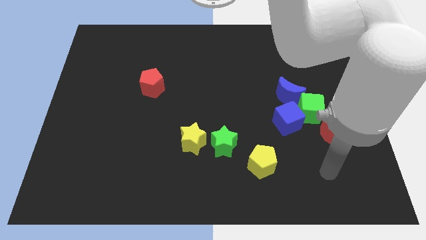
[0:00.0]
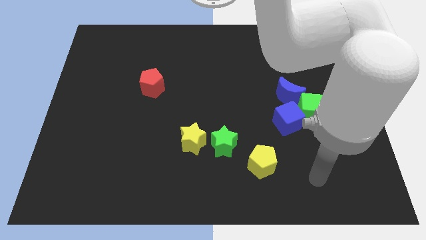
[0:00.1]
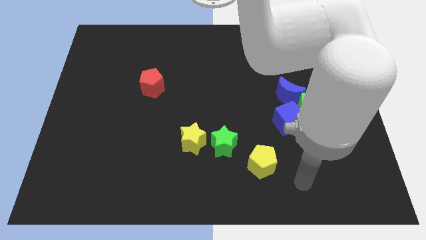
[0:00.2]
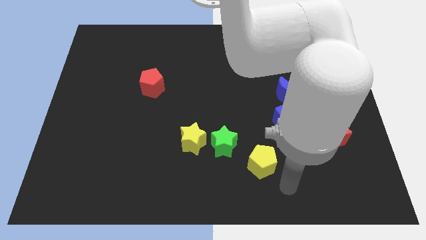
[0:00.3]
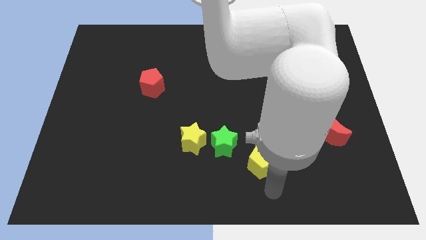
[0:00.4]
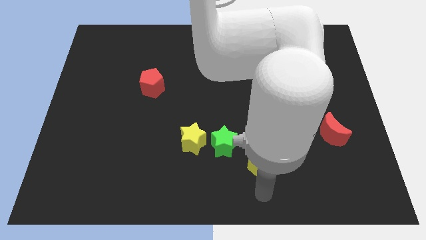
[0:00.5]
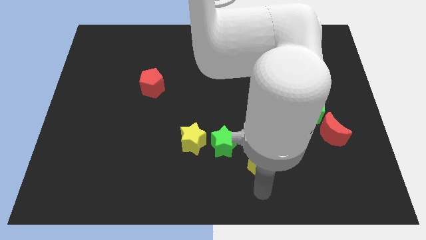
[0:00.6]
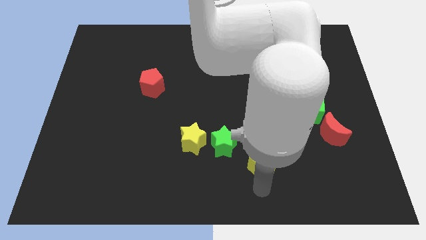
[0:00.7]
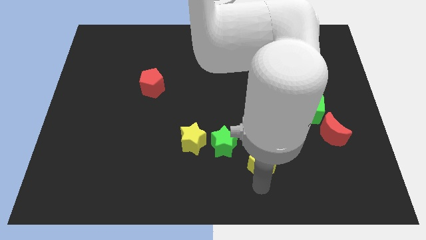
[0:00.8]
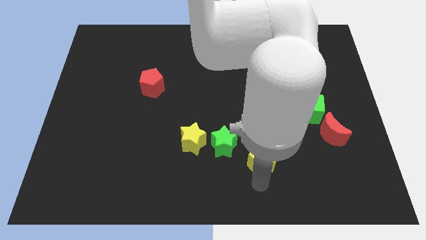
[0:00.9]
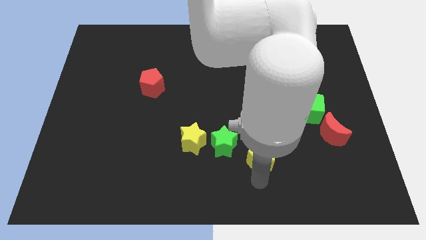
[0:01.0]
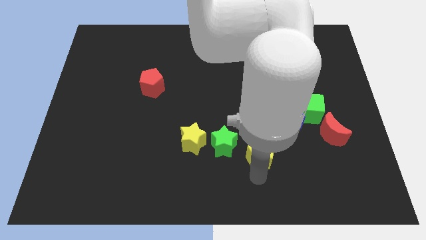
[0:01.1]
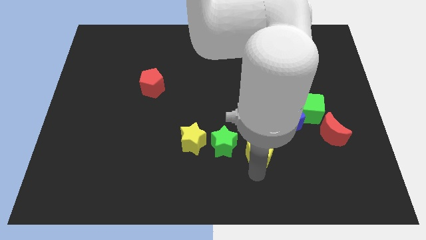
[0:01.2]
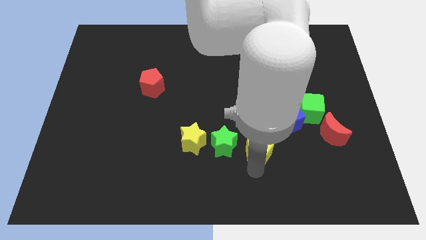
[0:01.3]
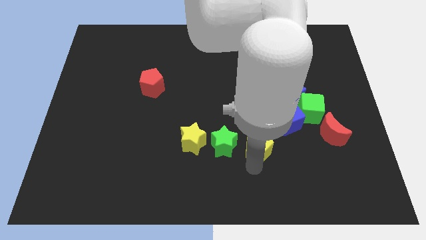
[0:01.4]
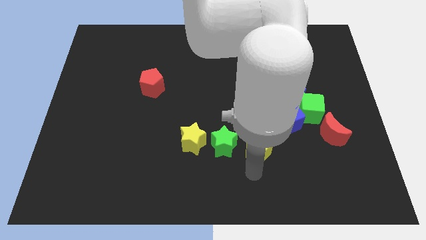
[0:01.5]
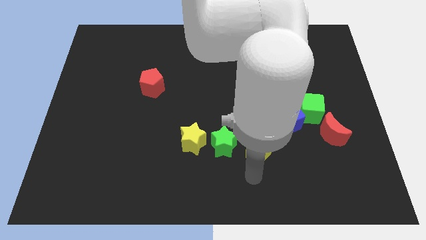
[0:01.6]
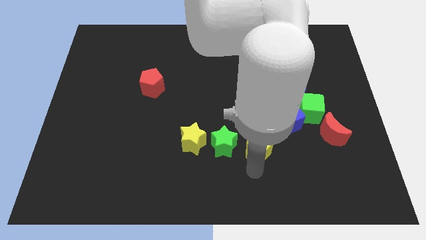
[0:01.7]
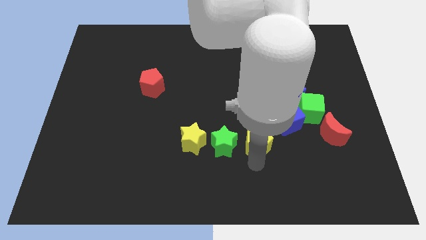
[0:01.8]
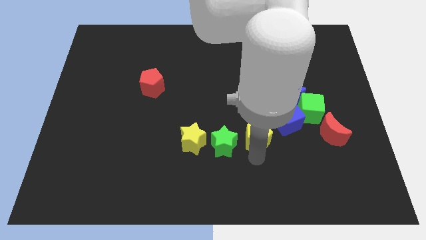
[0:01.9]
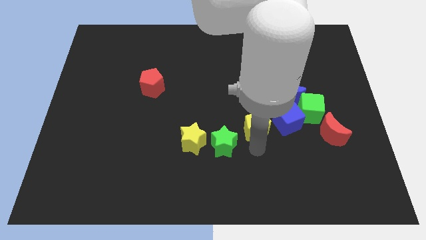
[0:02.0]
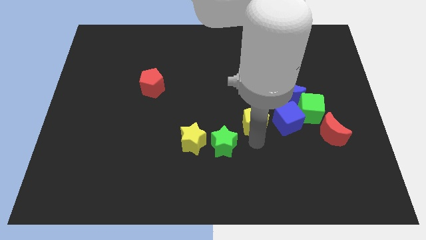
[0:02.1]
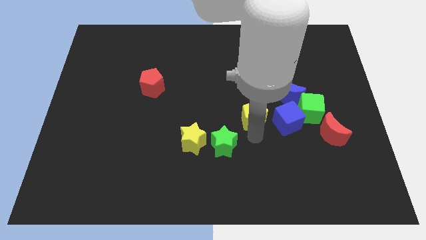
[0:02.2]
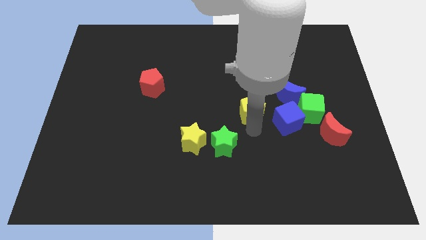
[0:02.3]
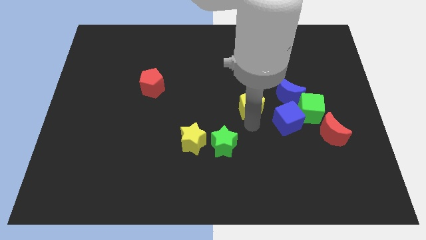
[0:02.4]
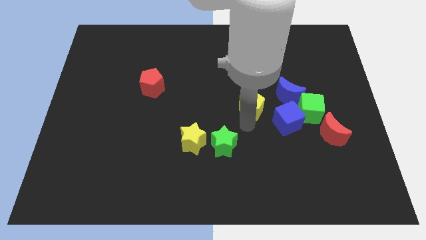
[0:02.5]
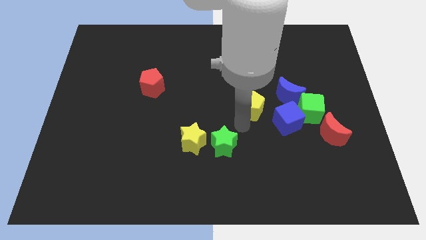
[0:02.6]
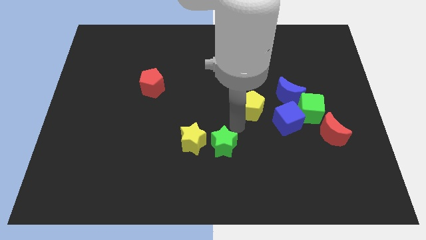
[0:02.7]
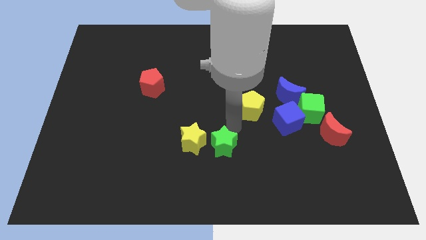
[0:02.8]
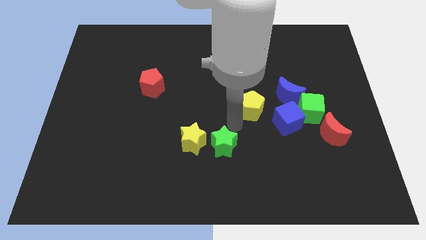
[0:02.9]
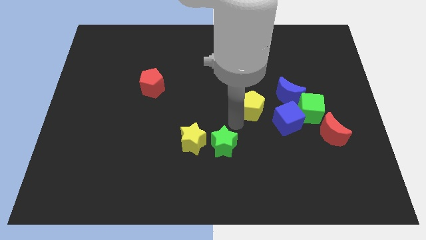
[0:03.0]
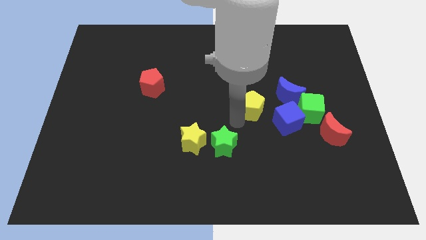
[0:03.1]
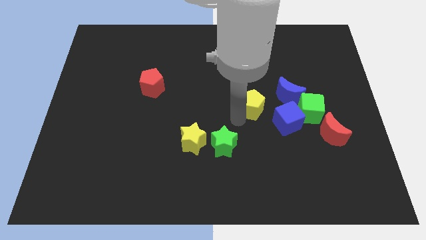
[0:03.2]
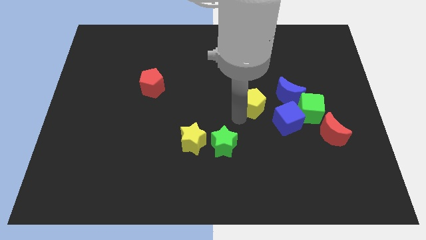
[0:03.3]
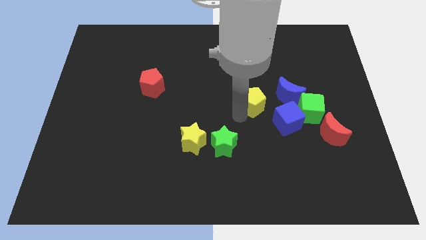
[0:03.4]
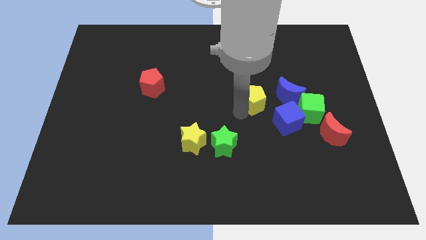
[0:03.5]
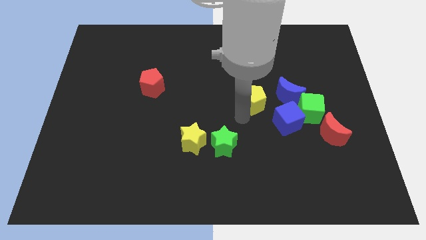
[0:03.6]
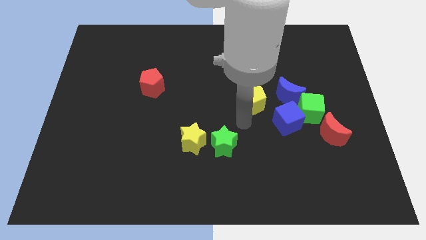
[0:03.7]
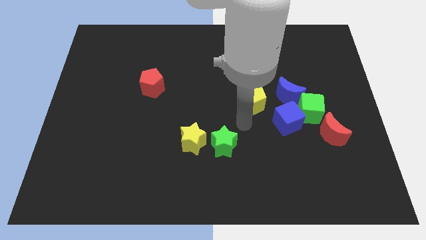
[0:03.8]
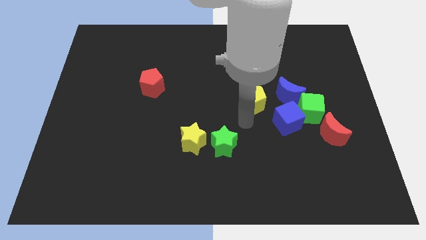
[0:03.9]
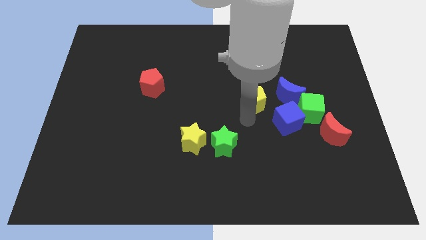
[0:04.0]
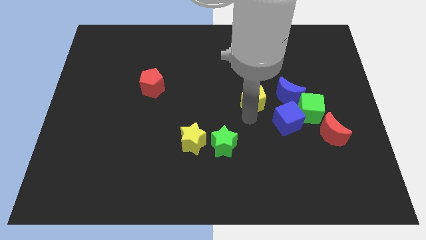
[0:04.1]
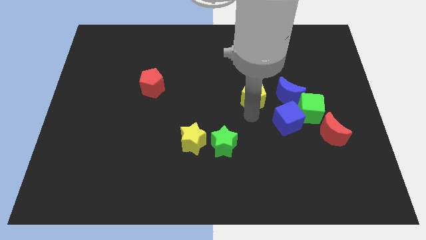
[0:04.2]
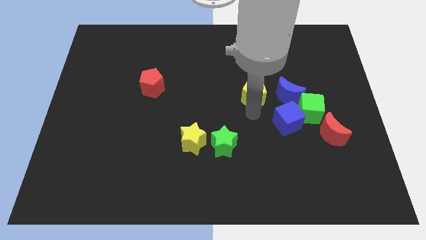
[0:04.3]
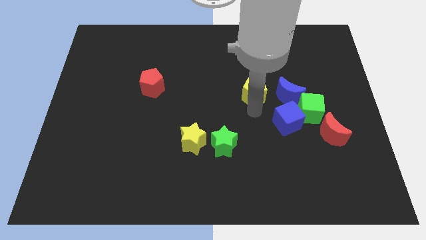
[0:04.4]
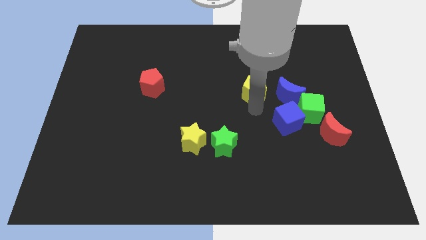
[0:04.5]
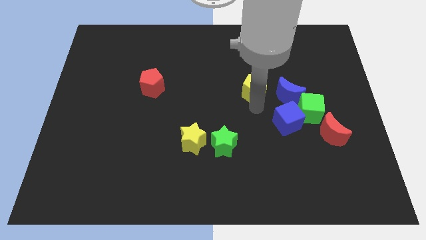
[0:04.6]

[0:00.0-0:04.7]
move the yellow pentagon up

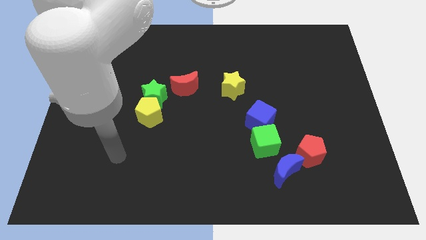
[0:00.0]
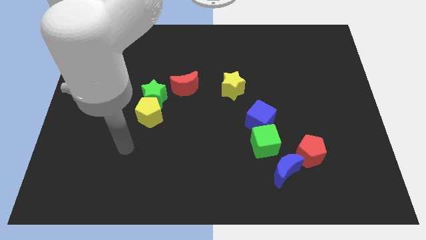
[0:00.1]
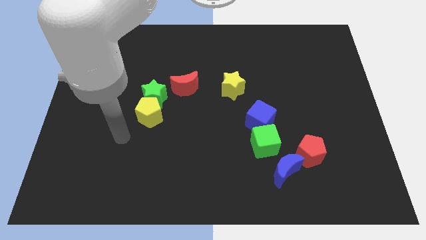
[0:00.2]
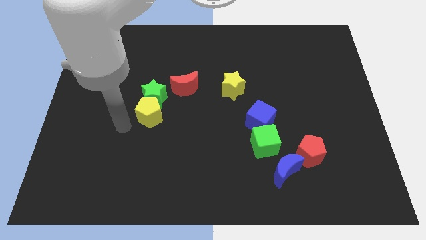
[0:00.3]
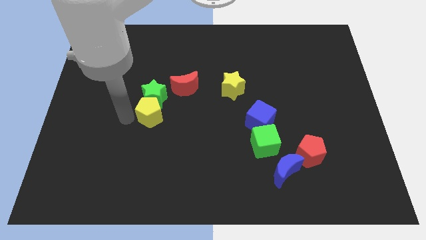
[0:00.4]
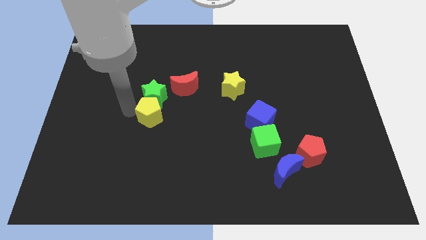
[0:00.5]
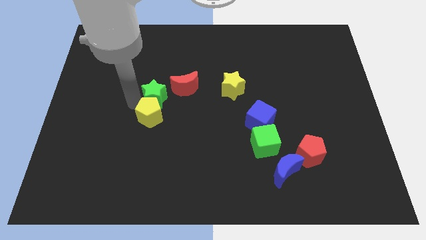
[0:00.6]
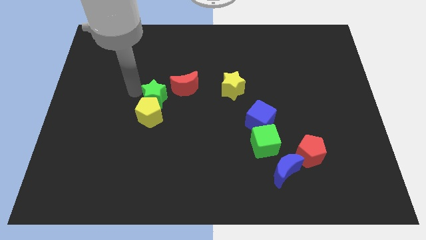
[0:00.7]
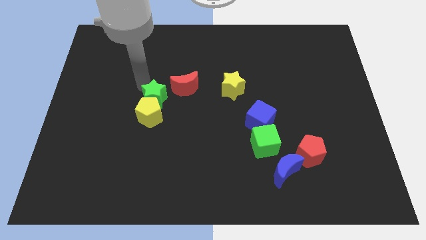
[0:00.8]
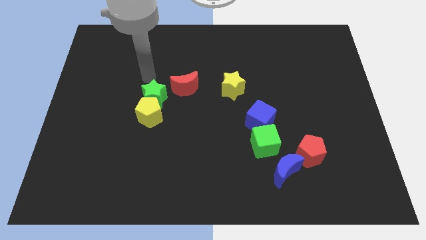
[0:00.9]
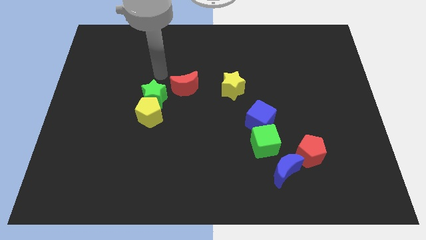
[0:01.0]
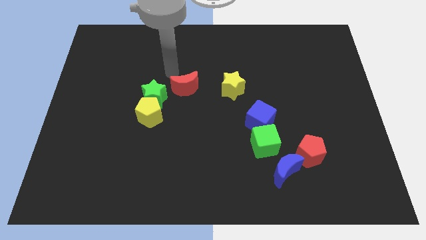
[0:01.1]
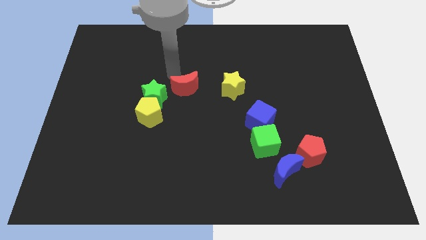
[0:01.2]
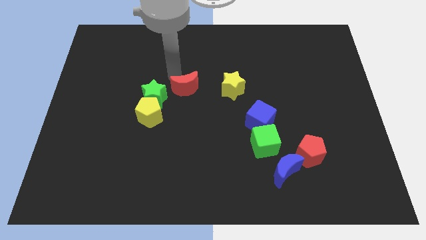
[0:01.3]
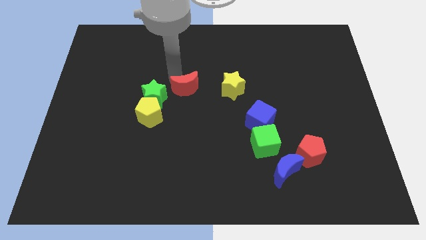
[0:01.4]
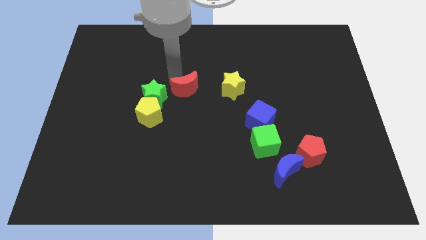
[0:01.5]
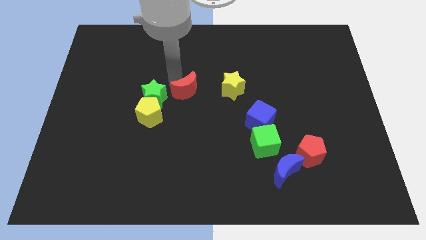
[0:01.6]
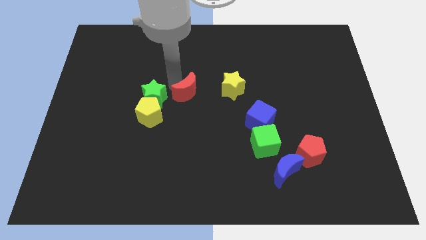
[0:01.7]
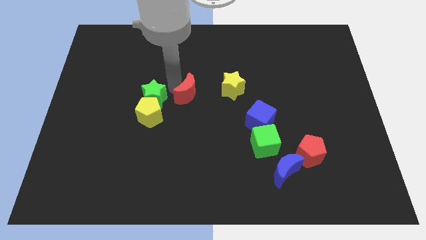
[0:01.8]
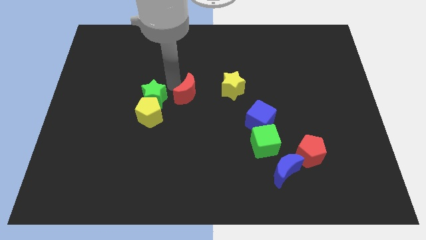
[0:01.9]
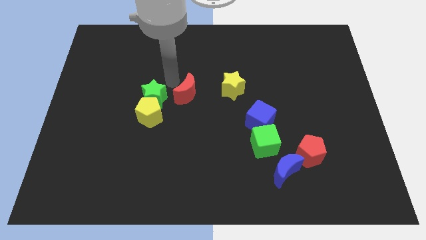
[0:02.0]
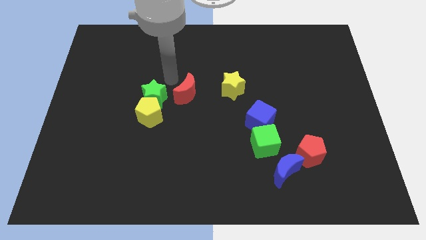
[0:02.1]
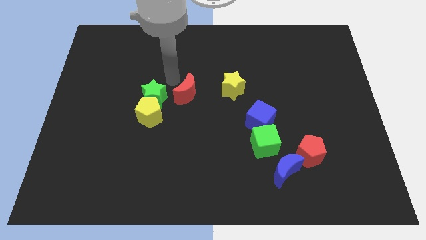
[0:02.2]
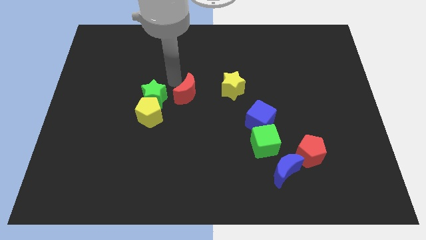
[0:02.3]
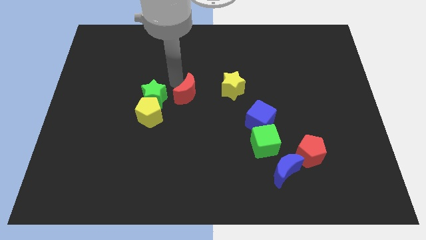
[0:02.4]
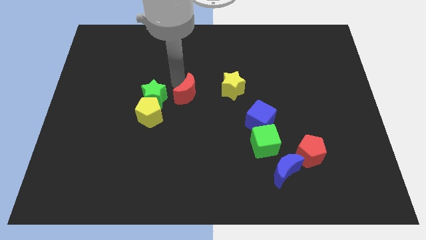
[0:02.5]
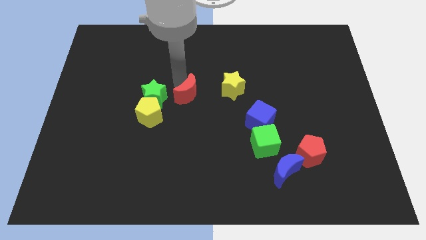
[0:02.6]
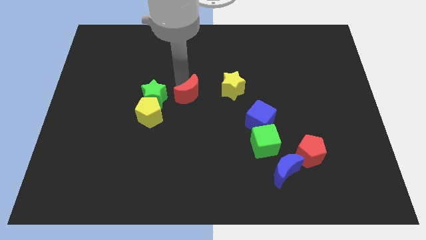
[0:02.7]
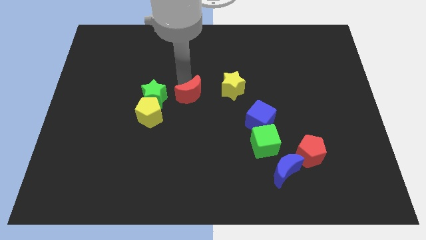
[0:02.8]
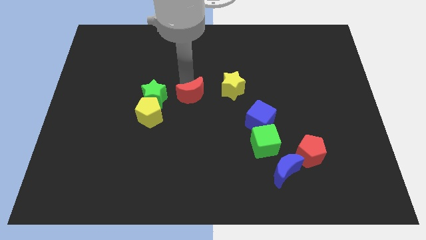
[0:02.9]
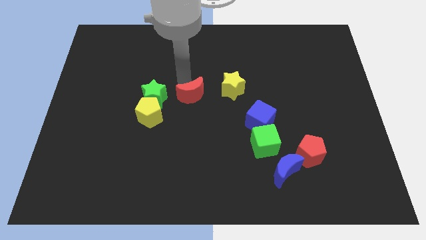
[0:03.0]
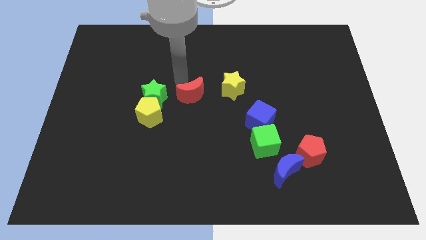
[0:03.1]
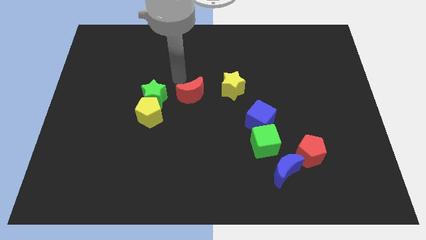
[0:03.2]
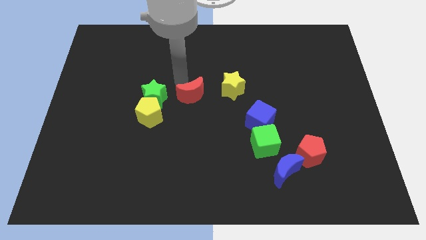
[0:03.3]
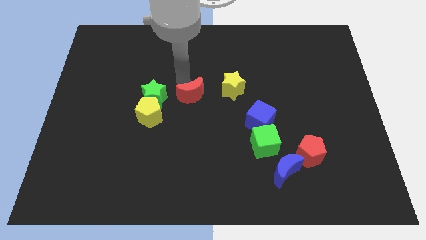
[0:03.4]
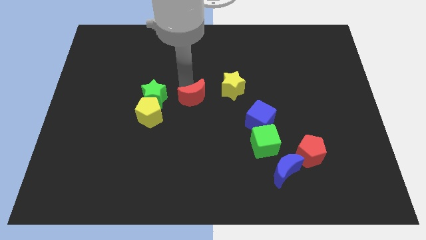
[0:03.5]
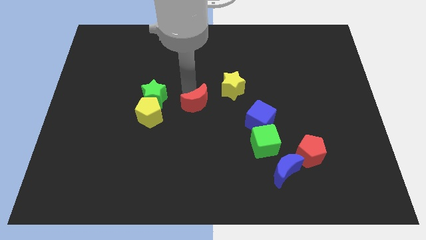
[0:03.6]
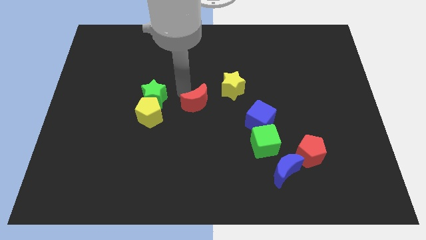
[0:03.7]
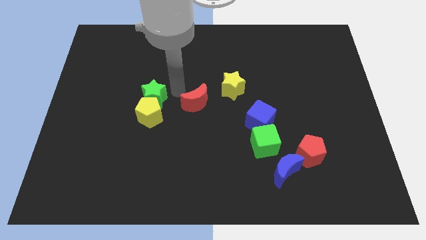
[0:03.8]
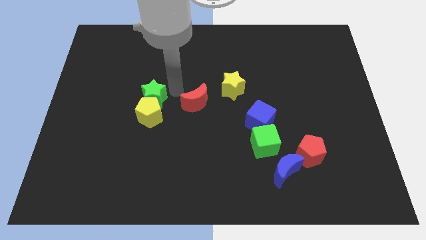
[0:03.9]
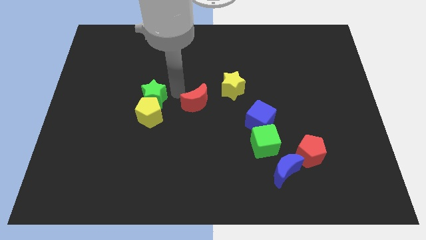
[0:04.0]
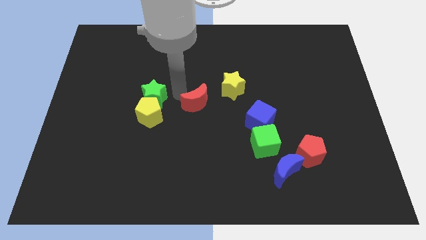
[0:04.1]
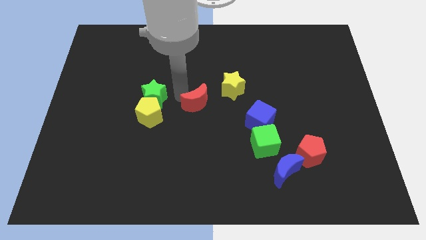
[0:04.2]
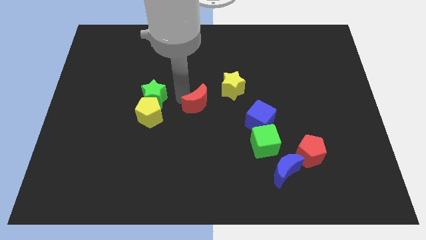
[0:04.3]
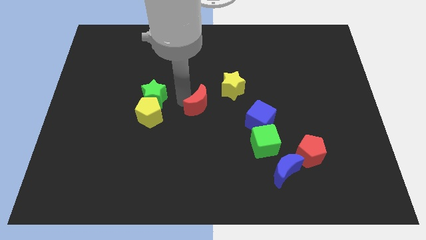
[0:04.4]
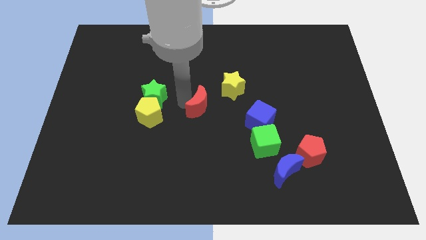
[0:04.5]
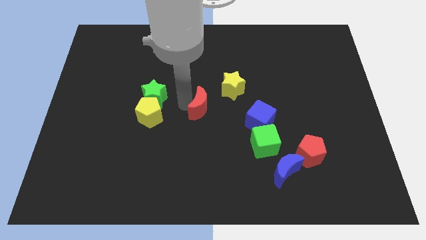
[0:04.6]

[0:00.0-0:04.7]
slide the red moon down and to the right a little
